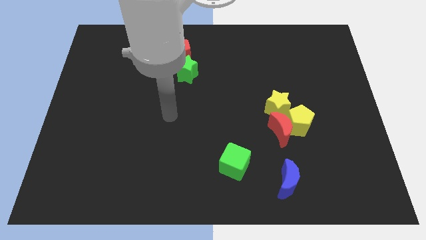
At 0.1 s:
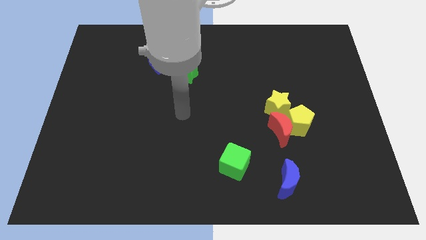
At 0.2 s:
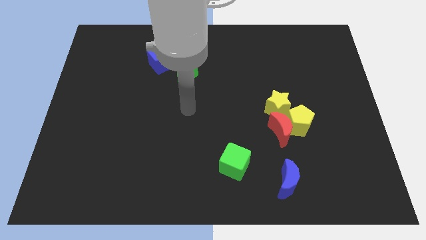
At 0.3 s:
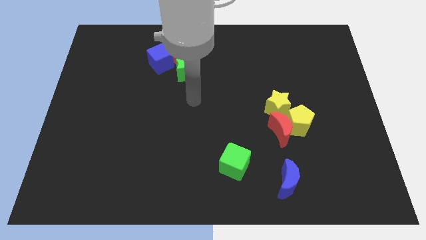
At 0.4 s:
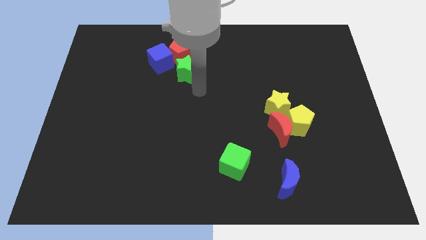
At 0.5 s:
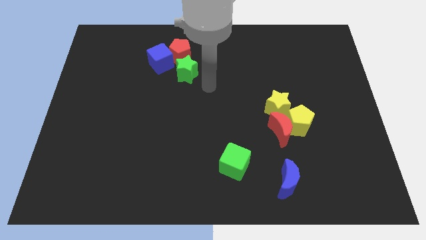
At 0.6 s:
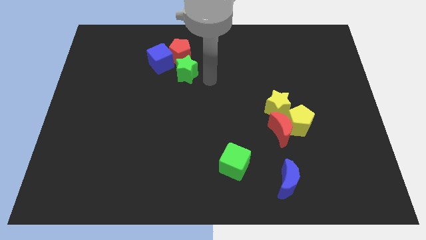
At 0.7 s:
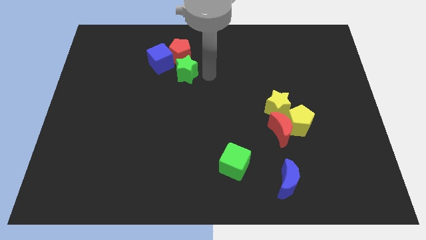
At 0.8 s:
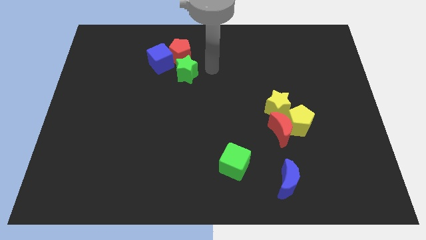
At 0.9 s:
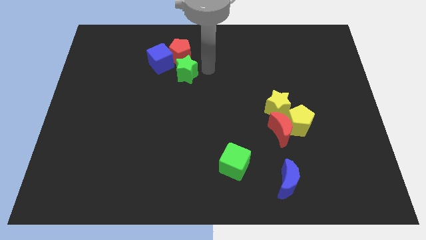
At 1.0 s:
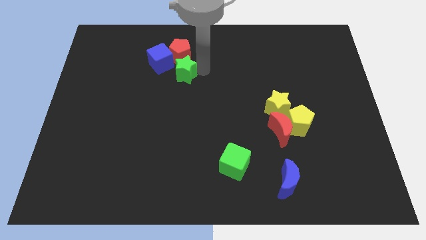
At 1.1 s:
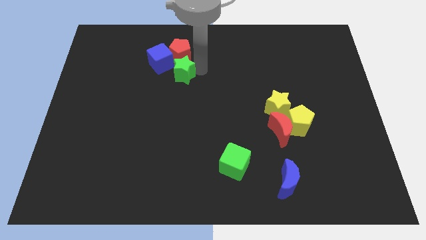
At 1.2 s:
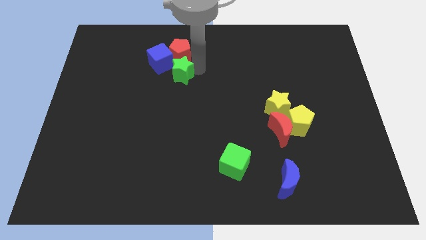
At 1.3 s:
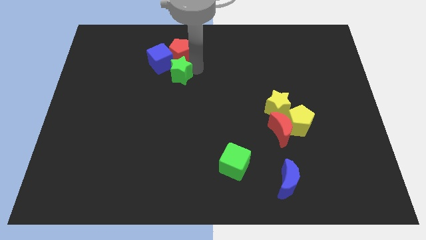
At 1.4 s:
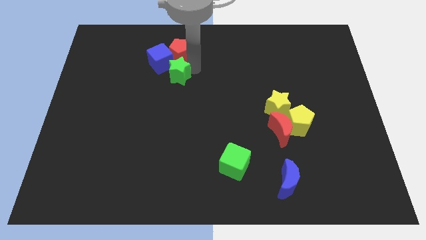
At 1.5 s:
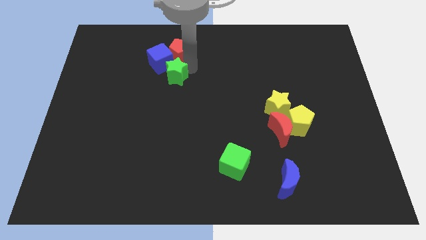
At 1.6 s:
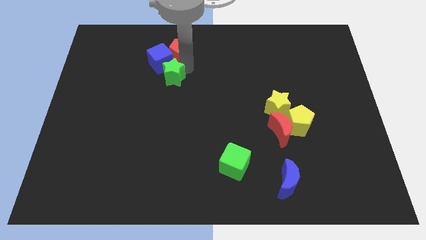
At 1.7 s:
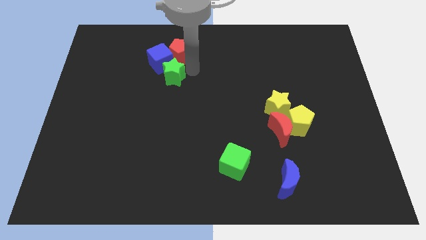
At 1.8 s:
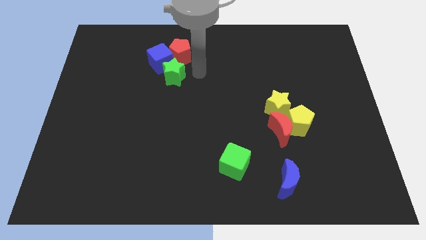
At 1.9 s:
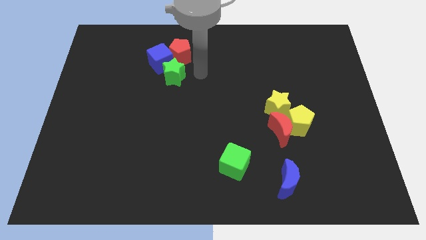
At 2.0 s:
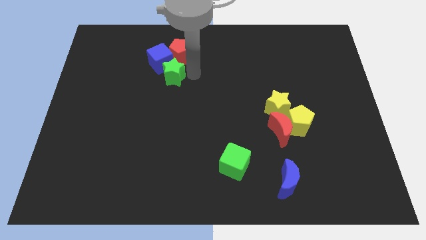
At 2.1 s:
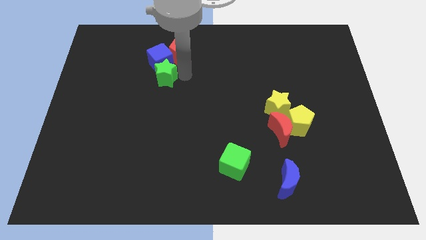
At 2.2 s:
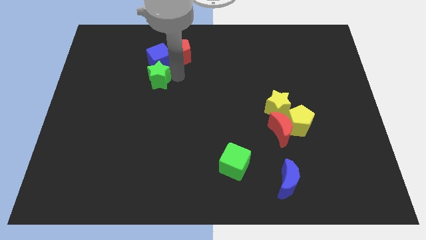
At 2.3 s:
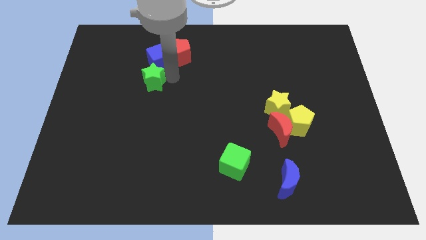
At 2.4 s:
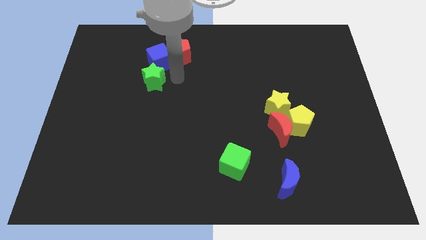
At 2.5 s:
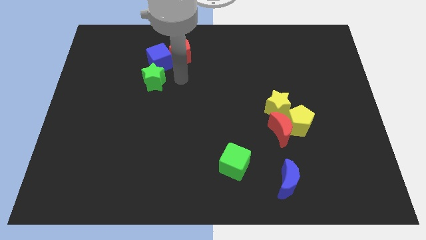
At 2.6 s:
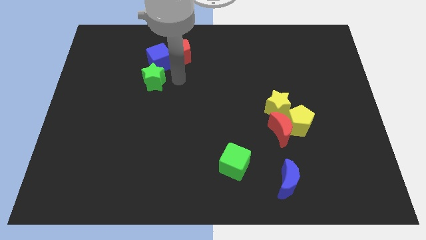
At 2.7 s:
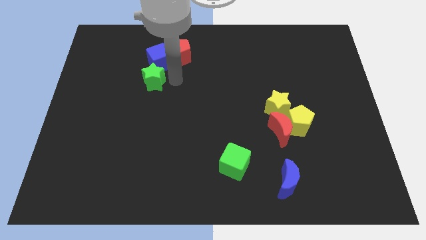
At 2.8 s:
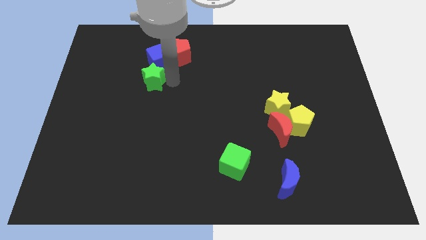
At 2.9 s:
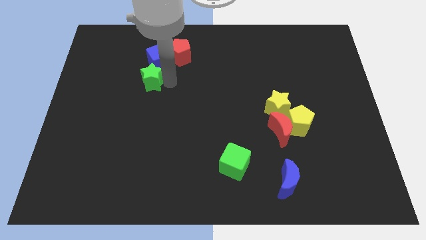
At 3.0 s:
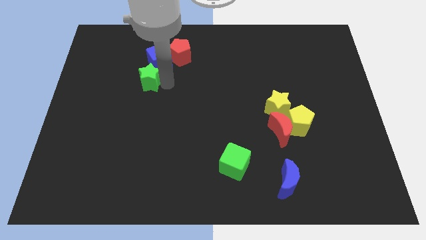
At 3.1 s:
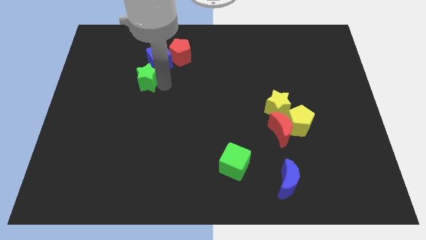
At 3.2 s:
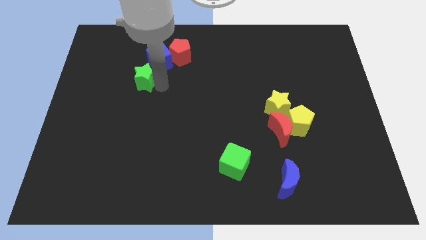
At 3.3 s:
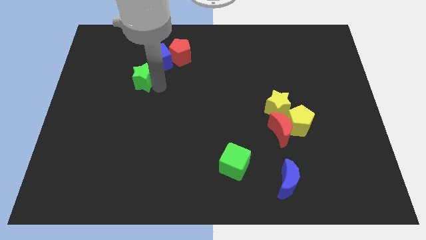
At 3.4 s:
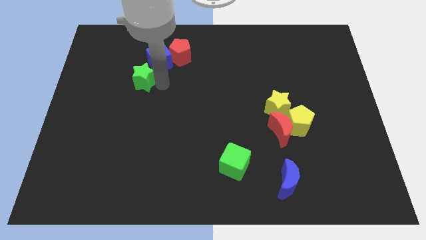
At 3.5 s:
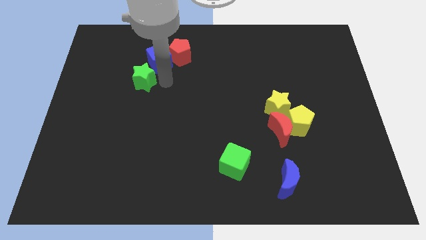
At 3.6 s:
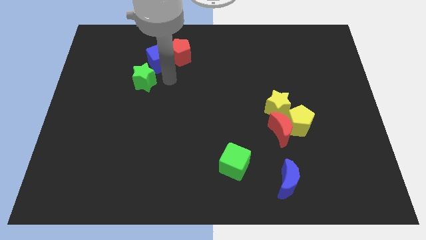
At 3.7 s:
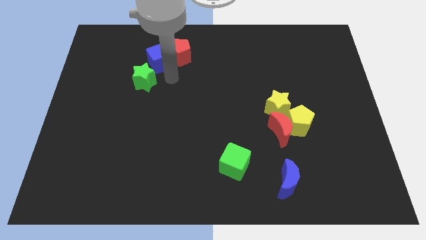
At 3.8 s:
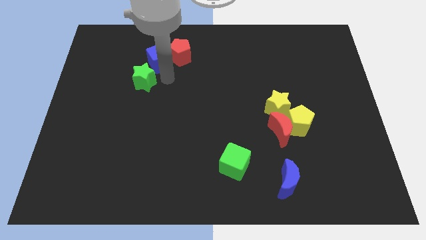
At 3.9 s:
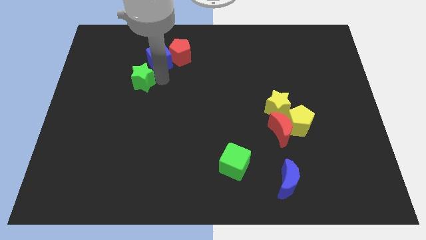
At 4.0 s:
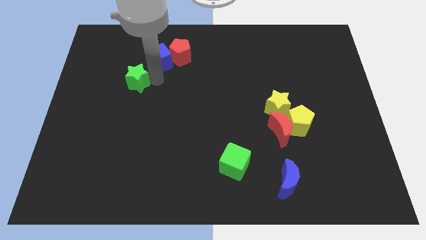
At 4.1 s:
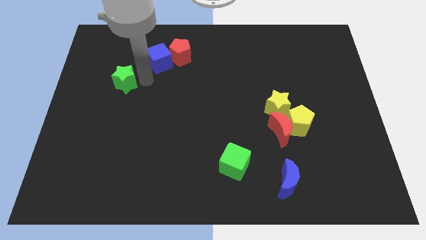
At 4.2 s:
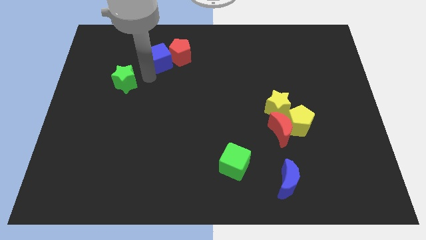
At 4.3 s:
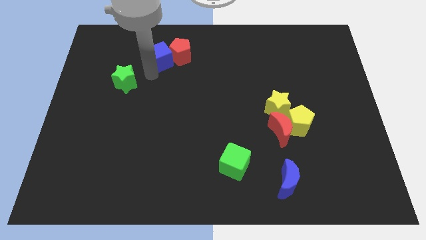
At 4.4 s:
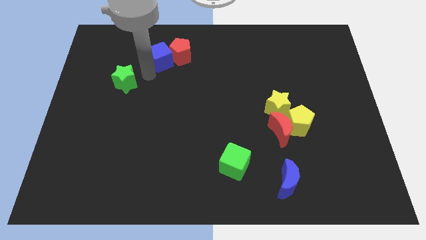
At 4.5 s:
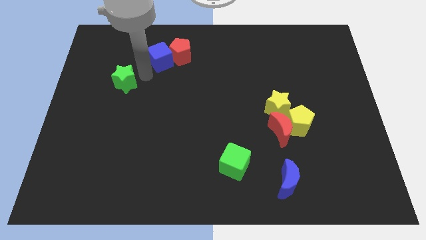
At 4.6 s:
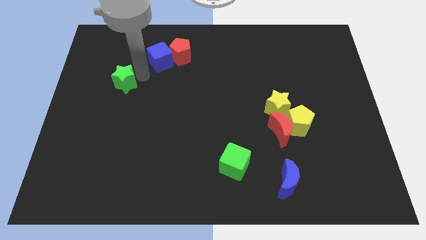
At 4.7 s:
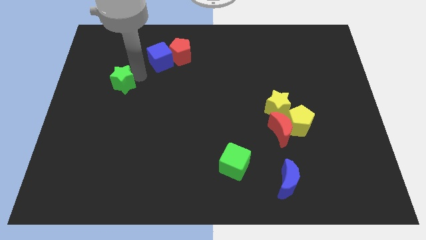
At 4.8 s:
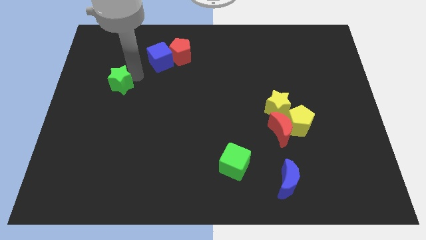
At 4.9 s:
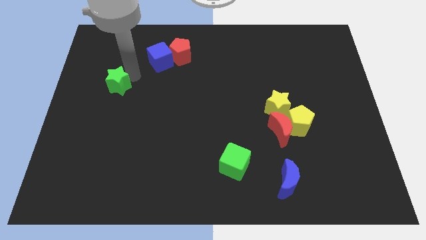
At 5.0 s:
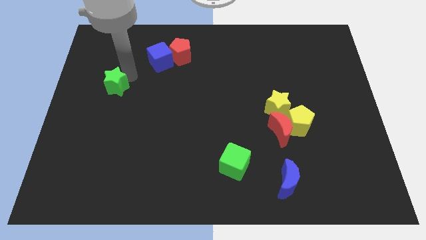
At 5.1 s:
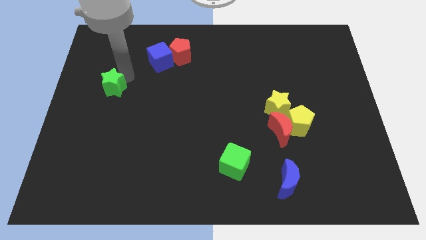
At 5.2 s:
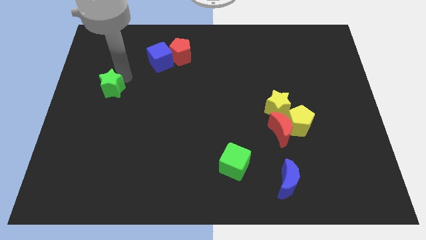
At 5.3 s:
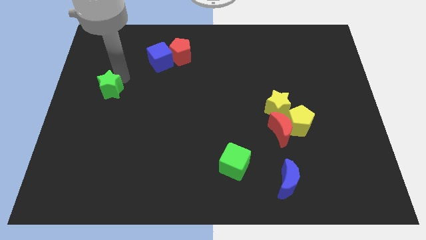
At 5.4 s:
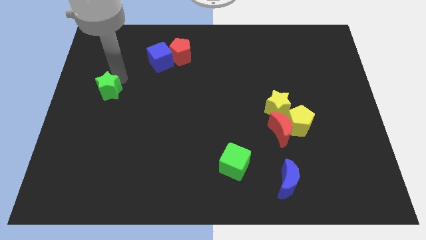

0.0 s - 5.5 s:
push the green star to the left side of the board

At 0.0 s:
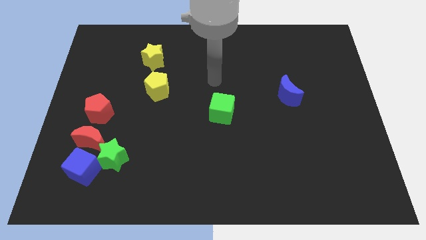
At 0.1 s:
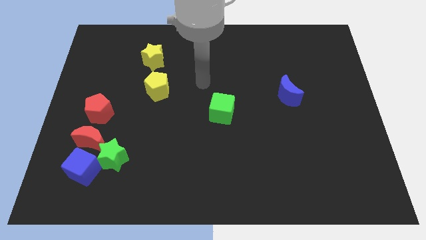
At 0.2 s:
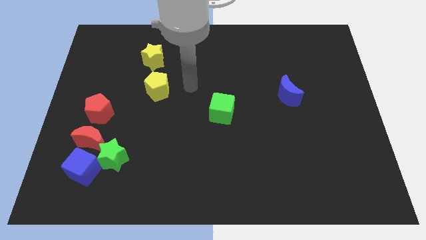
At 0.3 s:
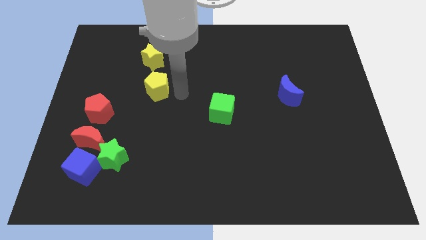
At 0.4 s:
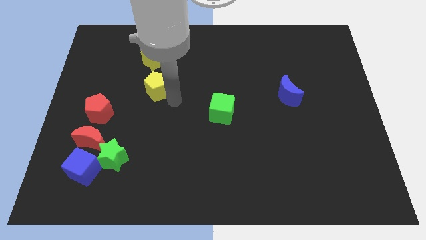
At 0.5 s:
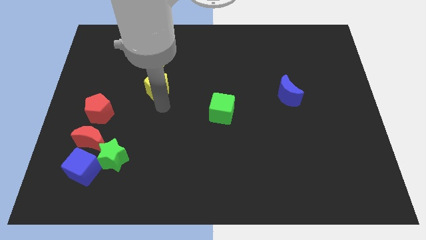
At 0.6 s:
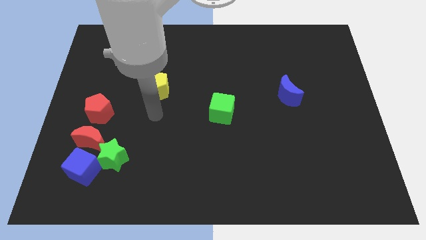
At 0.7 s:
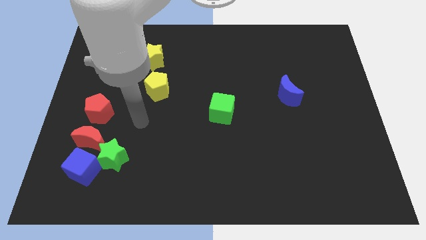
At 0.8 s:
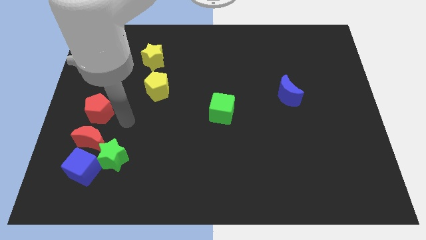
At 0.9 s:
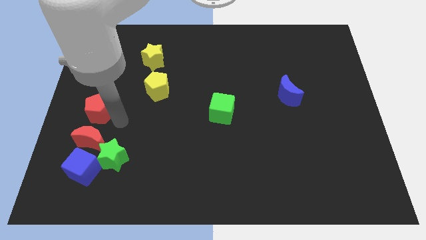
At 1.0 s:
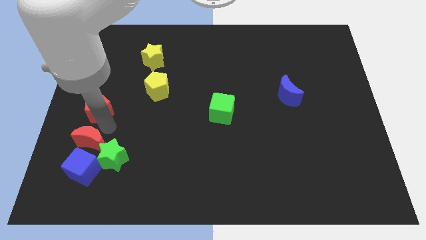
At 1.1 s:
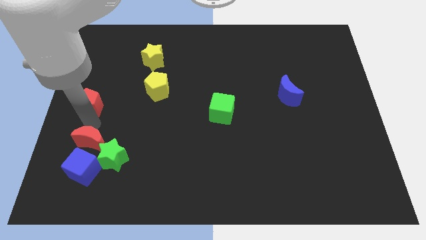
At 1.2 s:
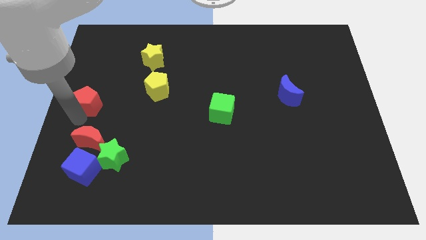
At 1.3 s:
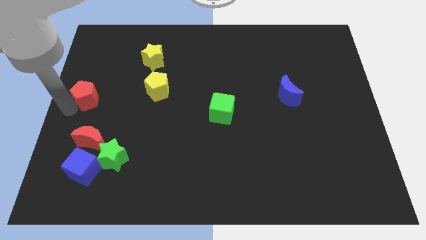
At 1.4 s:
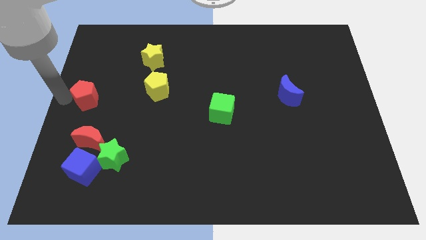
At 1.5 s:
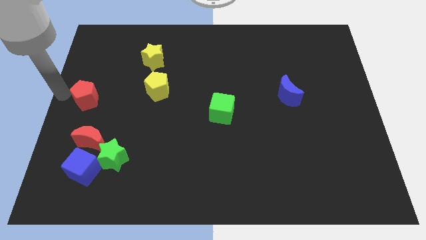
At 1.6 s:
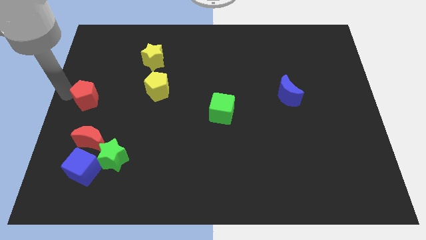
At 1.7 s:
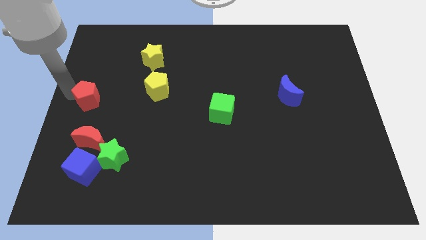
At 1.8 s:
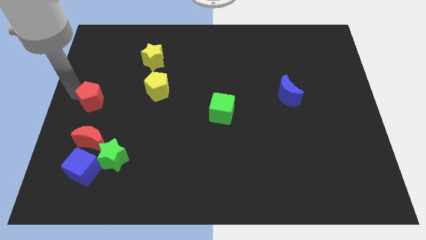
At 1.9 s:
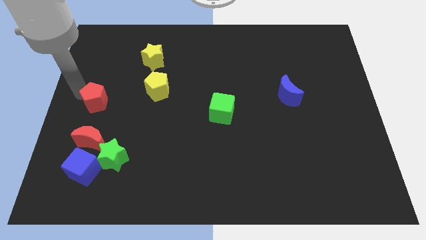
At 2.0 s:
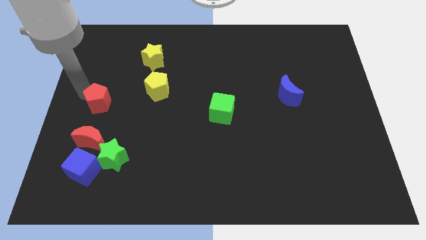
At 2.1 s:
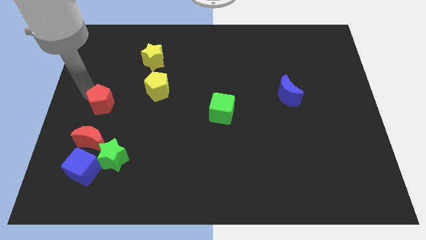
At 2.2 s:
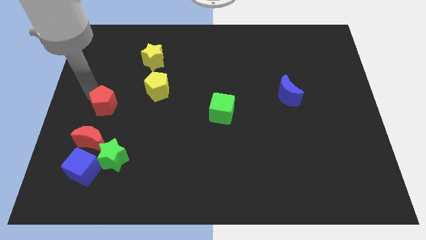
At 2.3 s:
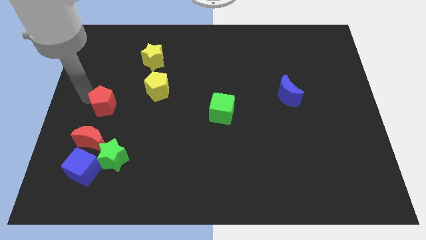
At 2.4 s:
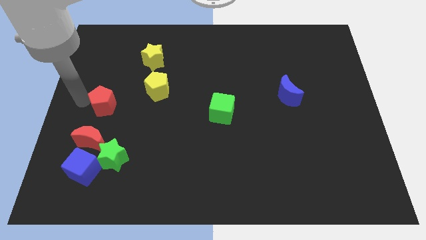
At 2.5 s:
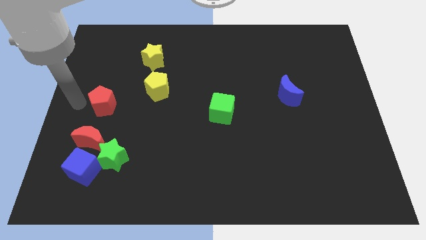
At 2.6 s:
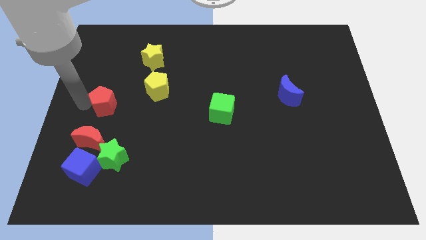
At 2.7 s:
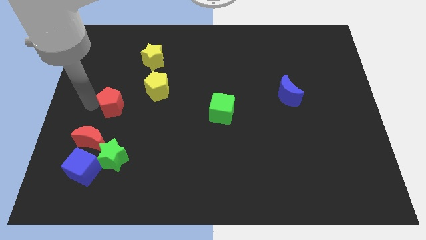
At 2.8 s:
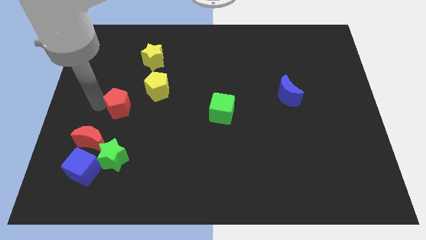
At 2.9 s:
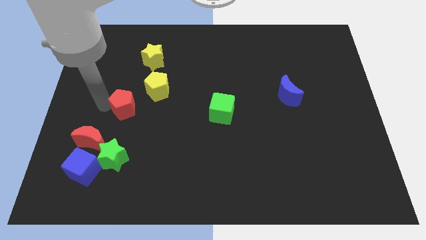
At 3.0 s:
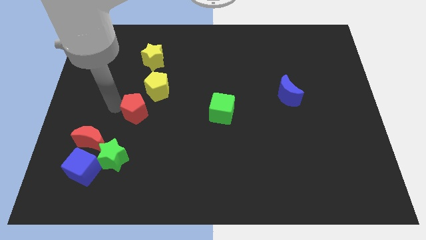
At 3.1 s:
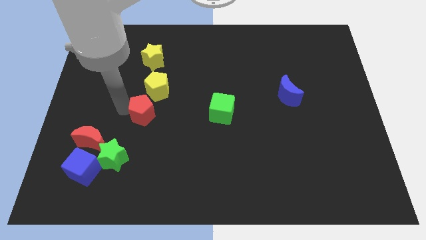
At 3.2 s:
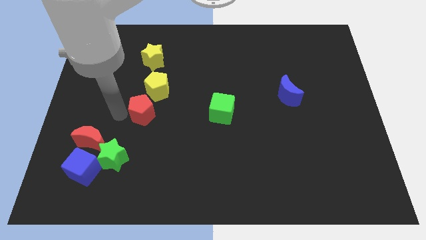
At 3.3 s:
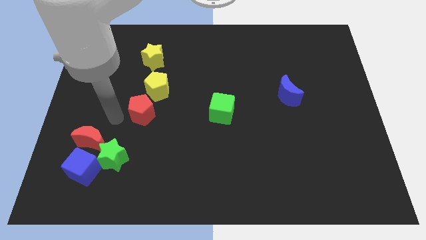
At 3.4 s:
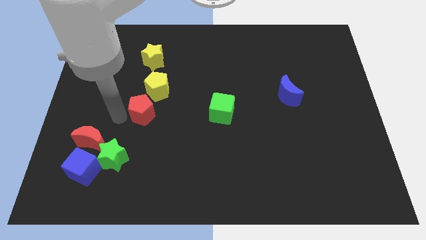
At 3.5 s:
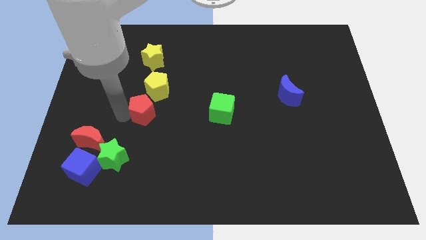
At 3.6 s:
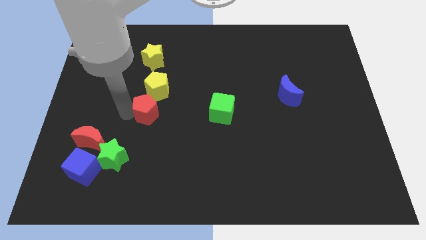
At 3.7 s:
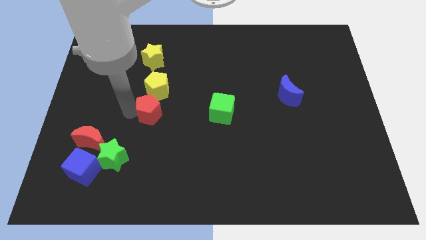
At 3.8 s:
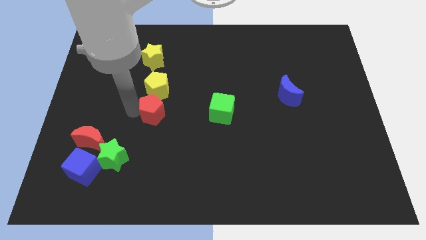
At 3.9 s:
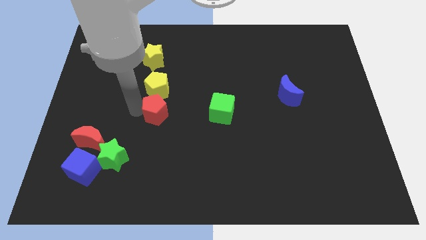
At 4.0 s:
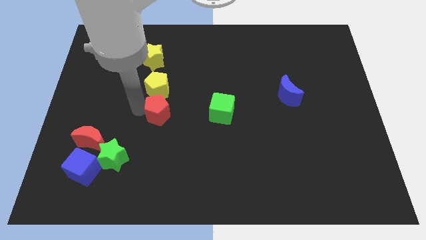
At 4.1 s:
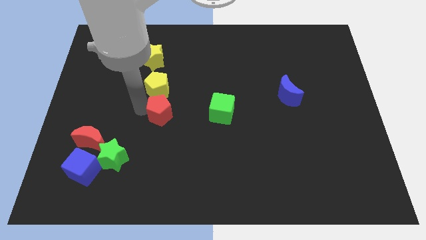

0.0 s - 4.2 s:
slide the red pentagon to the middle of the board
